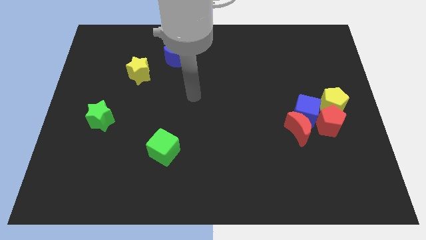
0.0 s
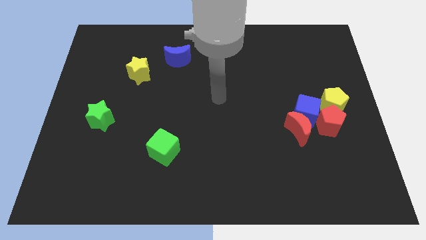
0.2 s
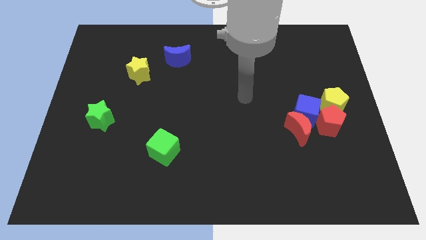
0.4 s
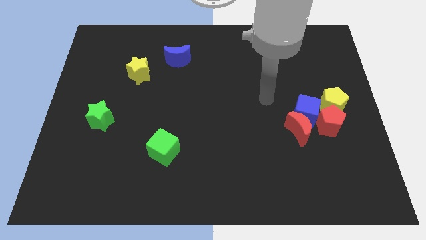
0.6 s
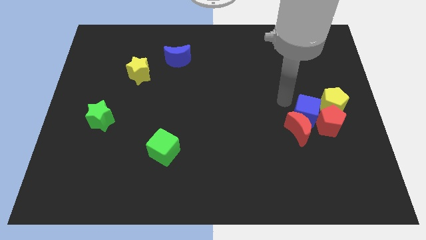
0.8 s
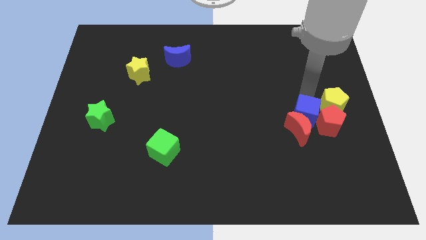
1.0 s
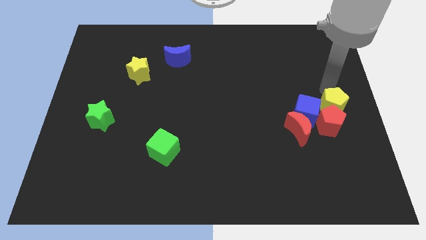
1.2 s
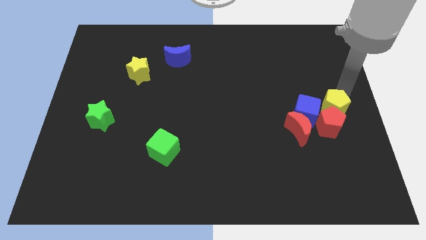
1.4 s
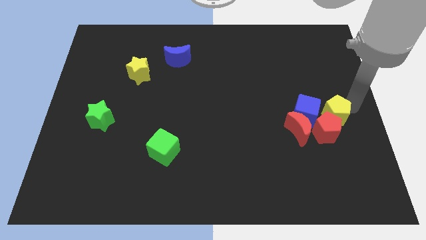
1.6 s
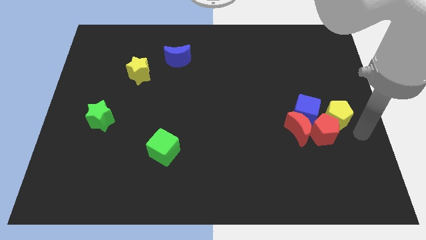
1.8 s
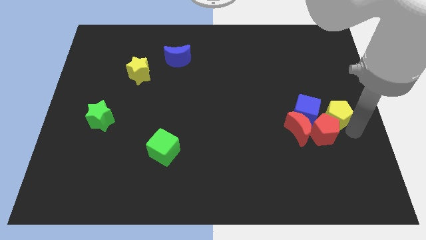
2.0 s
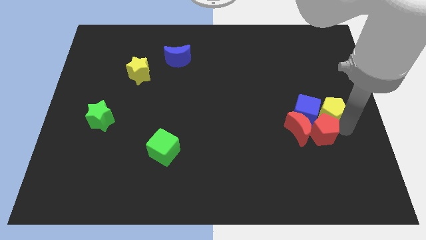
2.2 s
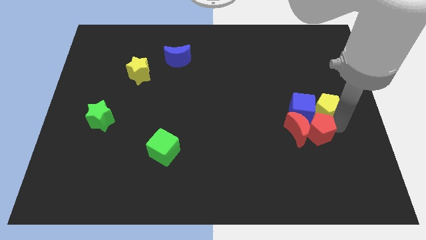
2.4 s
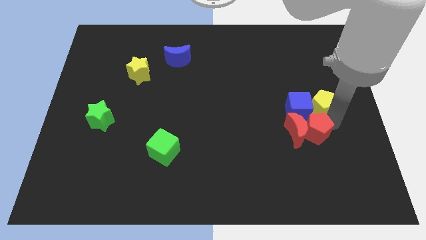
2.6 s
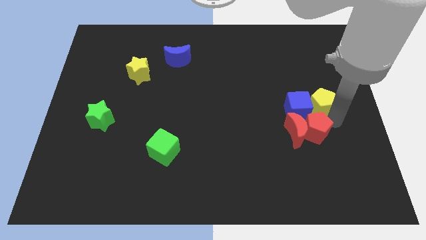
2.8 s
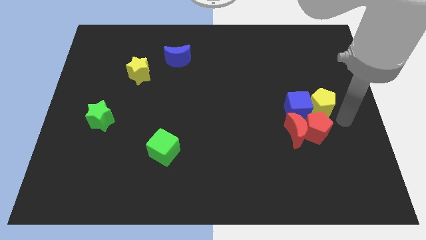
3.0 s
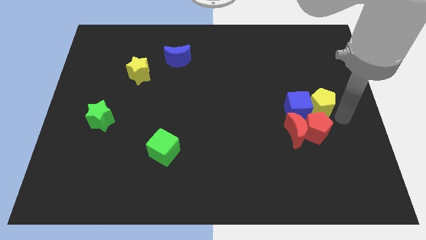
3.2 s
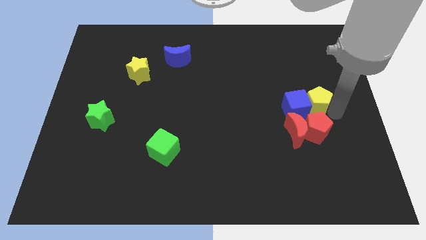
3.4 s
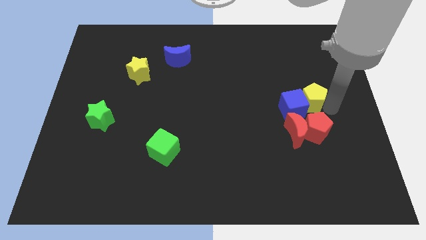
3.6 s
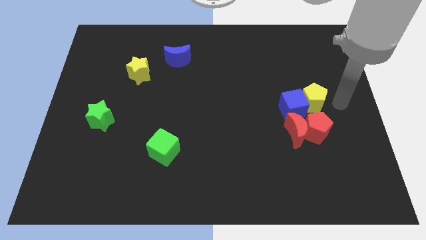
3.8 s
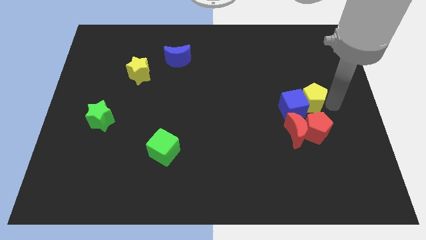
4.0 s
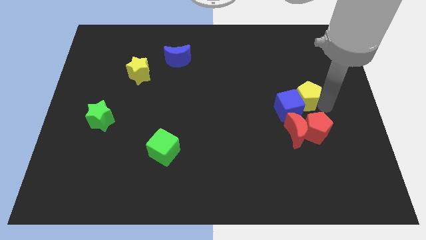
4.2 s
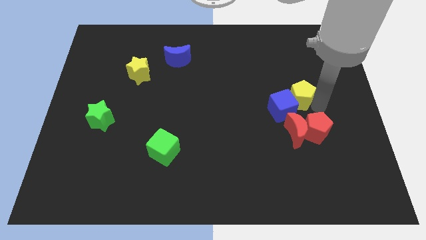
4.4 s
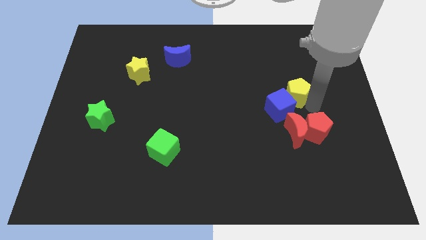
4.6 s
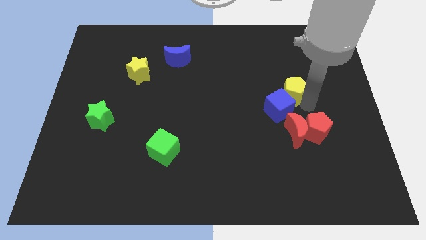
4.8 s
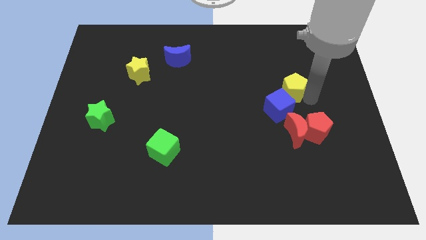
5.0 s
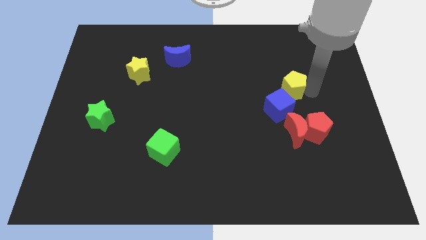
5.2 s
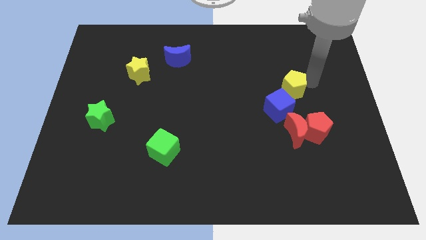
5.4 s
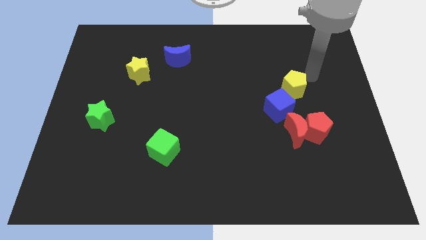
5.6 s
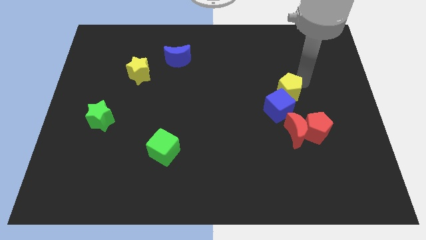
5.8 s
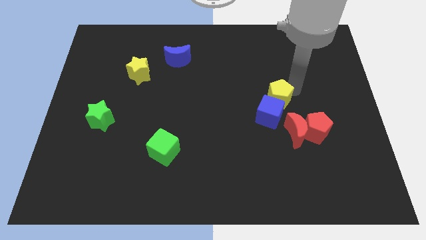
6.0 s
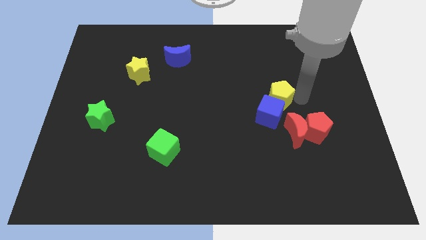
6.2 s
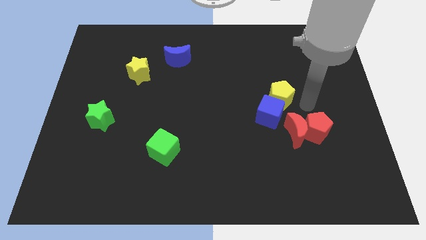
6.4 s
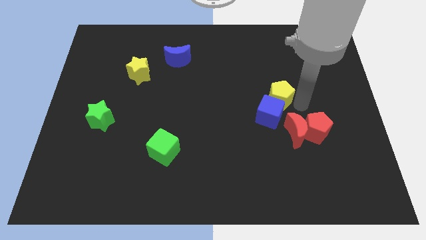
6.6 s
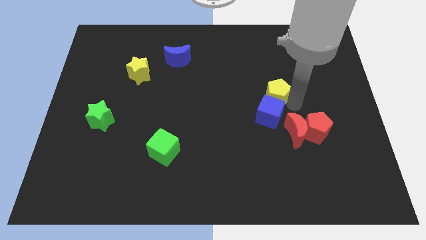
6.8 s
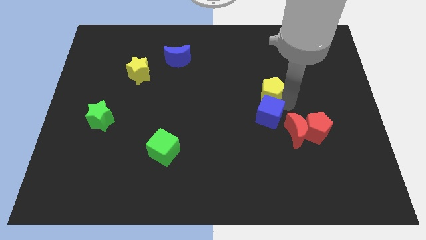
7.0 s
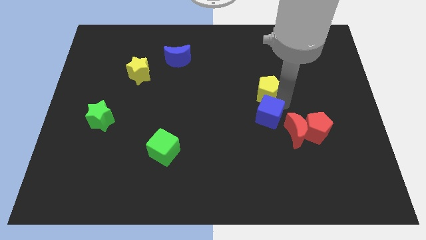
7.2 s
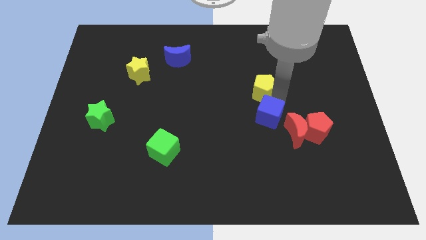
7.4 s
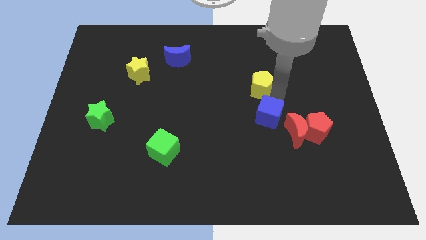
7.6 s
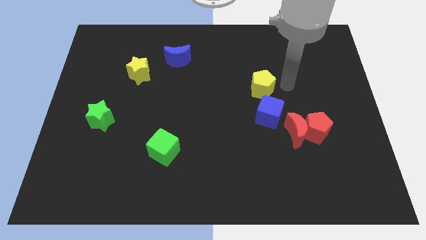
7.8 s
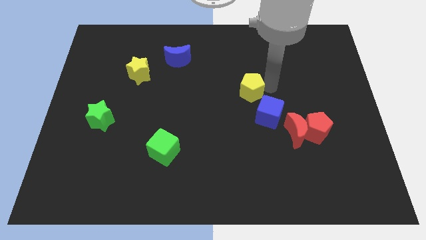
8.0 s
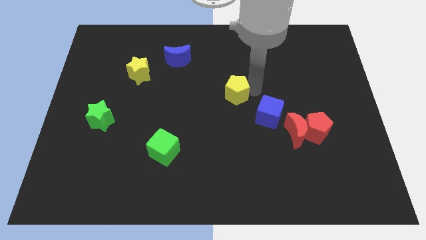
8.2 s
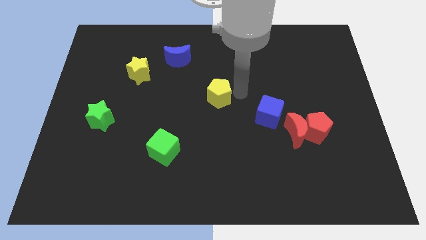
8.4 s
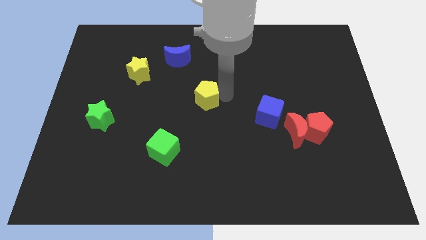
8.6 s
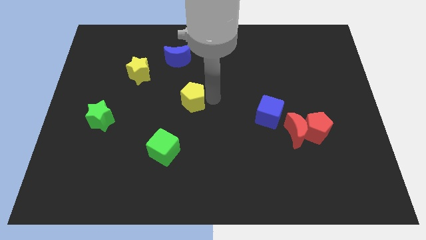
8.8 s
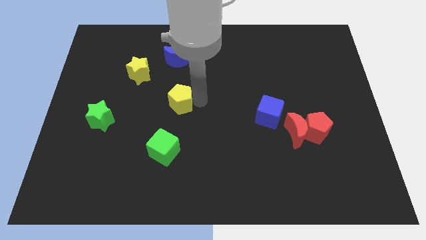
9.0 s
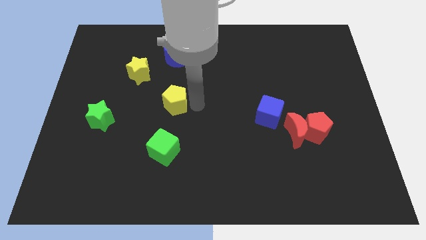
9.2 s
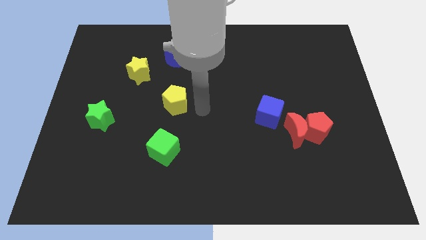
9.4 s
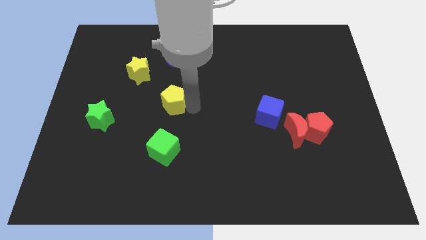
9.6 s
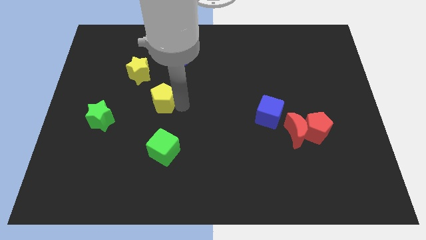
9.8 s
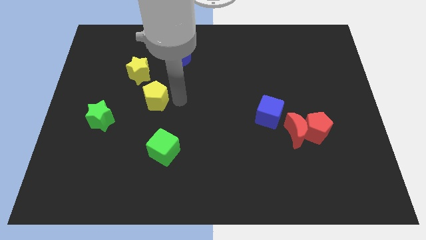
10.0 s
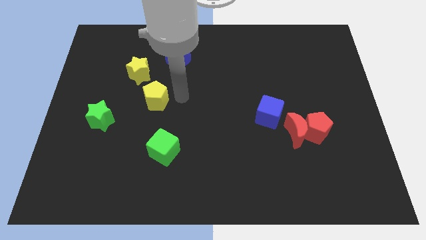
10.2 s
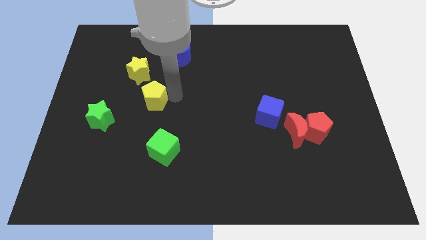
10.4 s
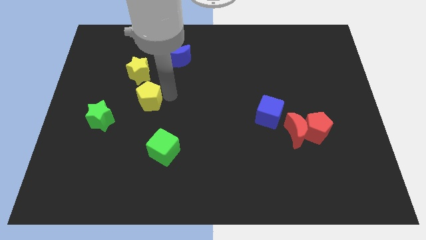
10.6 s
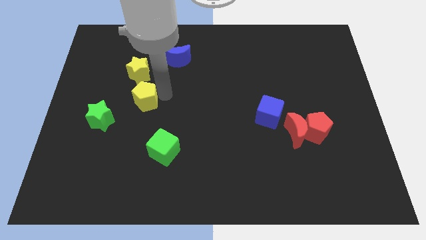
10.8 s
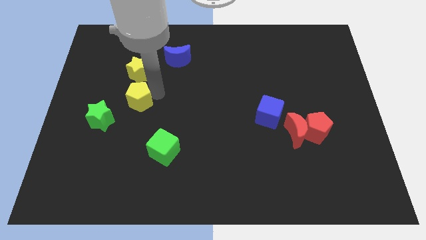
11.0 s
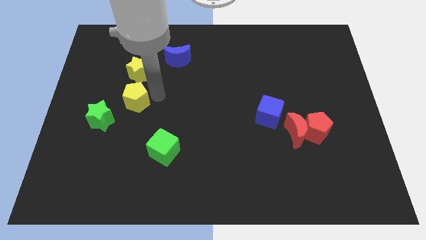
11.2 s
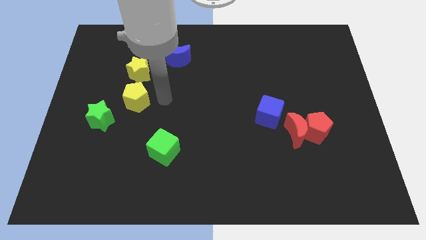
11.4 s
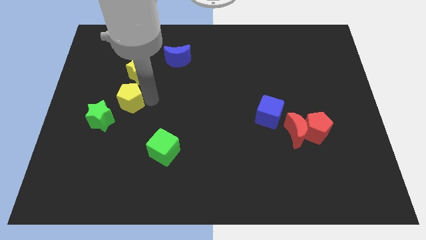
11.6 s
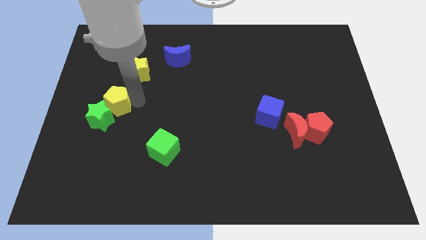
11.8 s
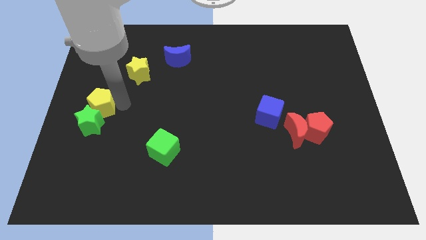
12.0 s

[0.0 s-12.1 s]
move the yellow pentagon to the center left

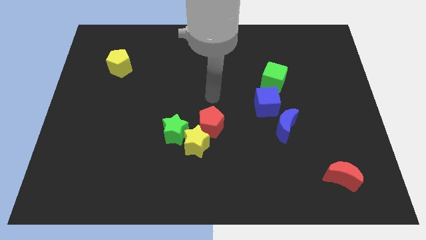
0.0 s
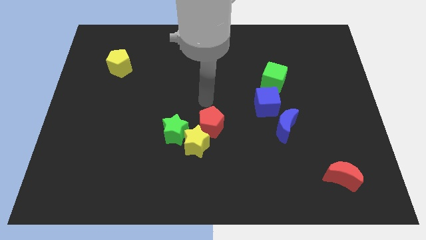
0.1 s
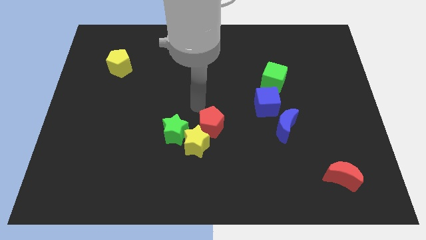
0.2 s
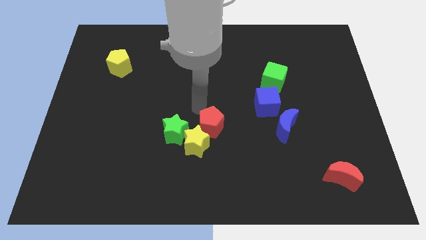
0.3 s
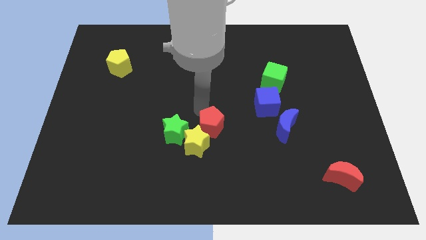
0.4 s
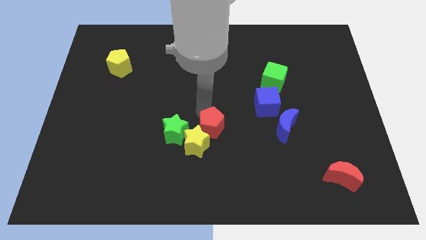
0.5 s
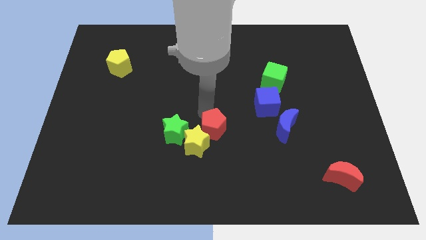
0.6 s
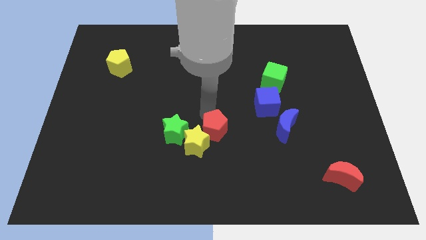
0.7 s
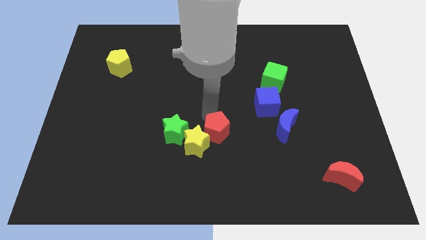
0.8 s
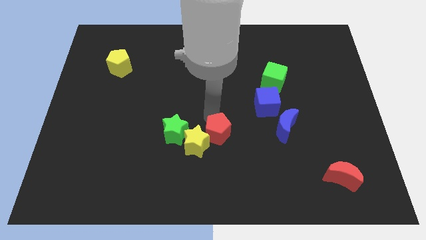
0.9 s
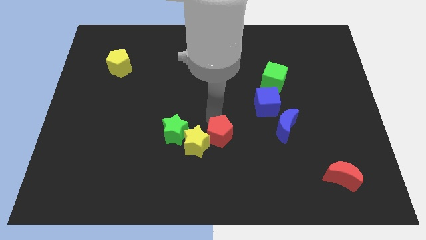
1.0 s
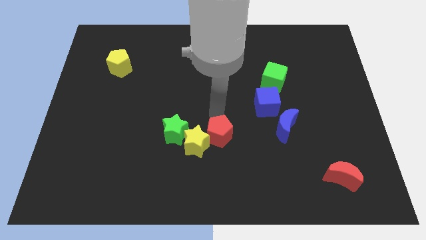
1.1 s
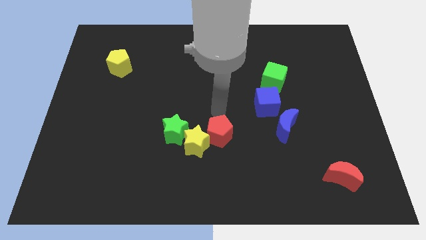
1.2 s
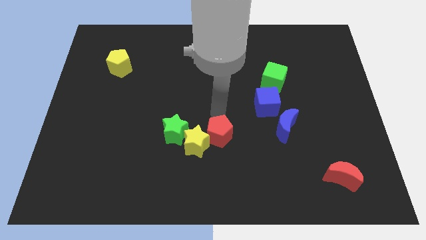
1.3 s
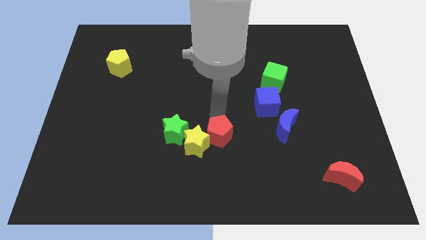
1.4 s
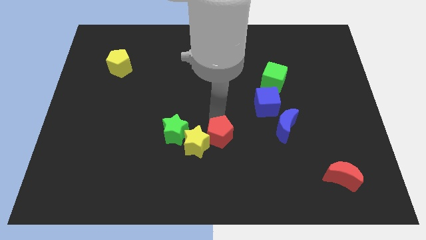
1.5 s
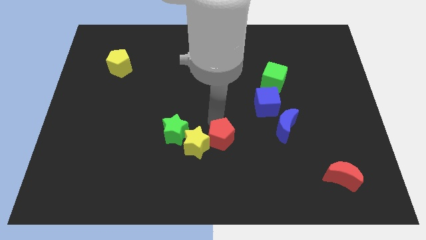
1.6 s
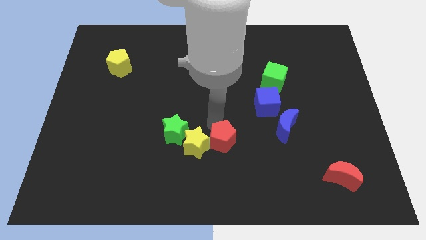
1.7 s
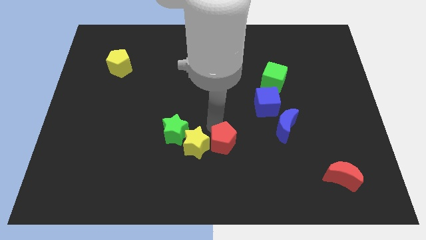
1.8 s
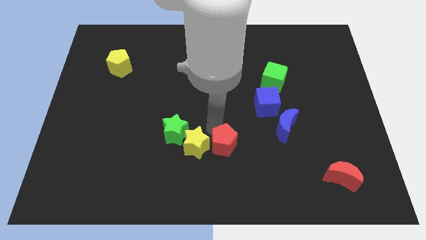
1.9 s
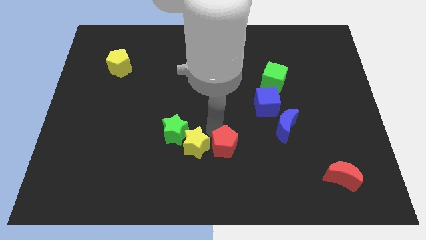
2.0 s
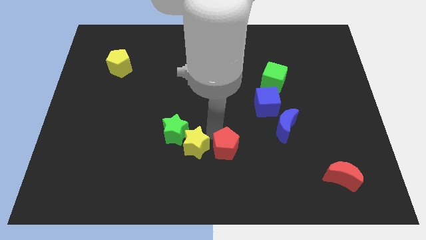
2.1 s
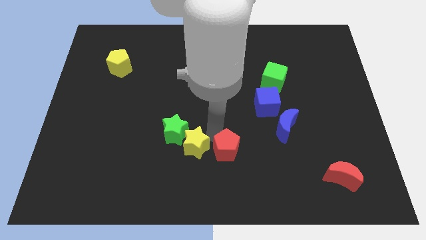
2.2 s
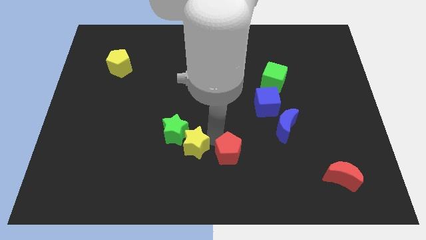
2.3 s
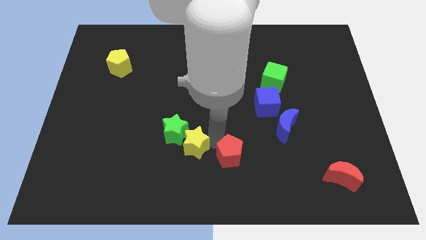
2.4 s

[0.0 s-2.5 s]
push the red pentagon to the bottom side
